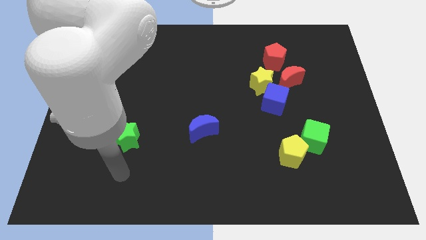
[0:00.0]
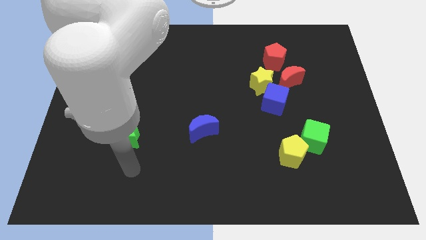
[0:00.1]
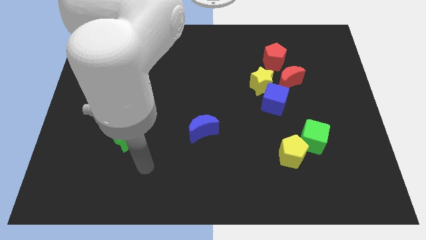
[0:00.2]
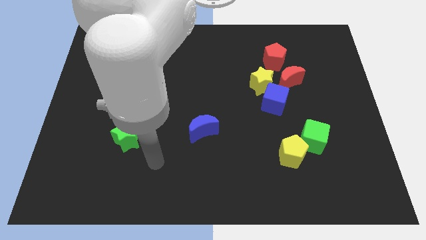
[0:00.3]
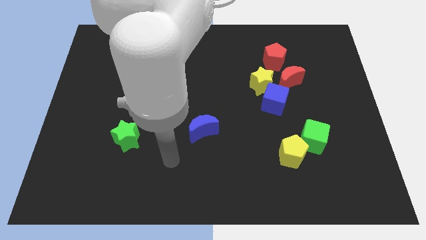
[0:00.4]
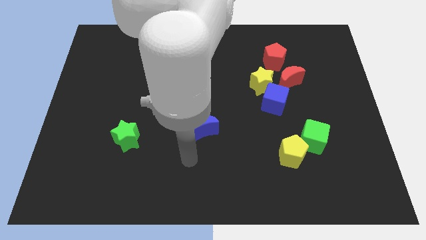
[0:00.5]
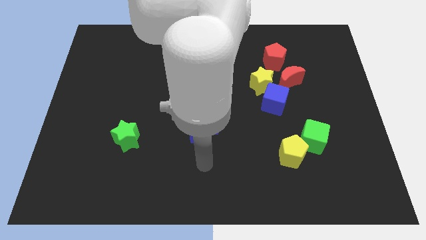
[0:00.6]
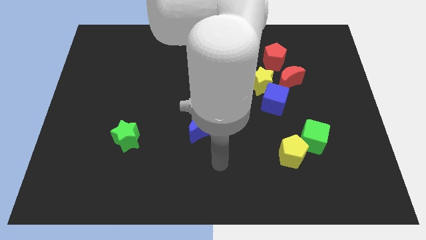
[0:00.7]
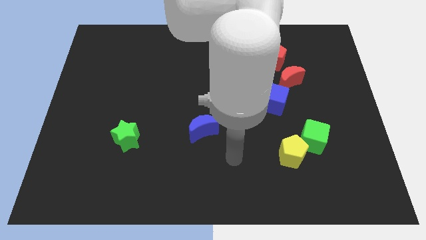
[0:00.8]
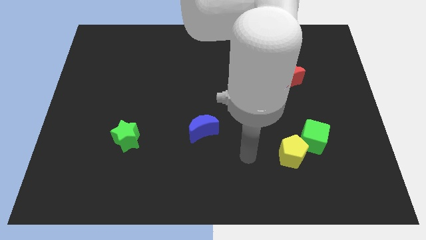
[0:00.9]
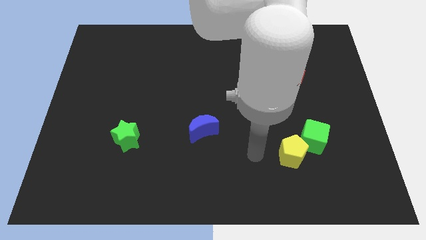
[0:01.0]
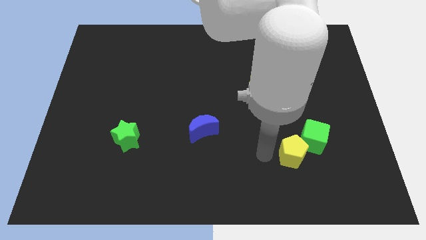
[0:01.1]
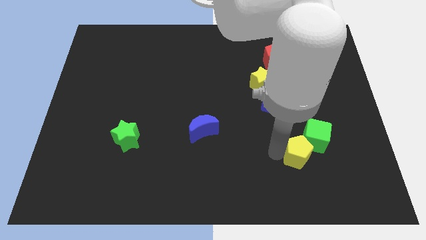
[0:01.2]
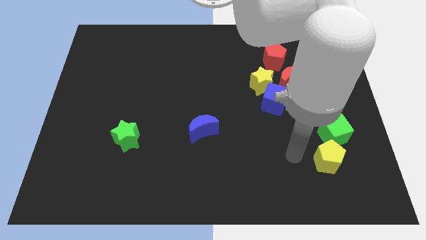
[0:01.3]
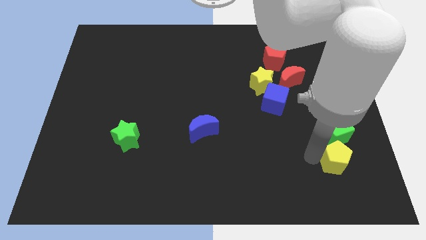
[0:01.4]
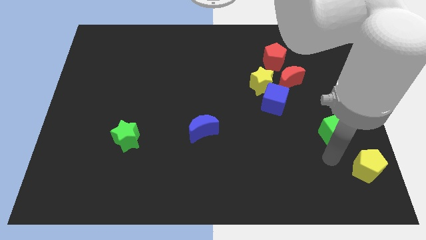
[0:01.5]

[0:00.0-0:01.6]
move the green cube away from the yellow pentagon

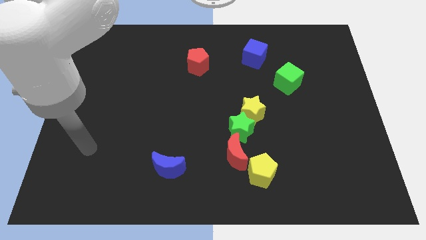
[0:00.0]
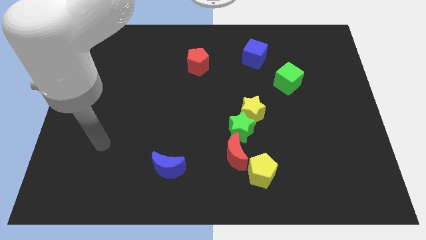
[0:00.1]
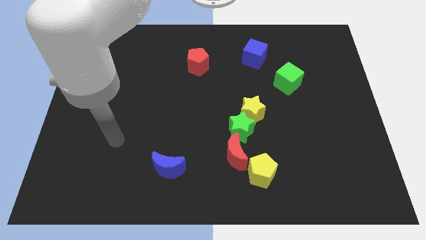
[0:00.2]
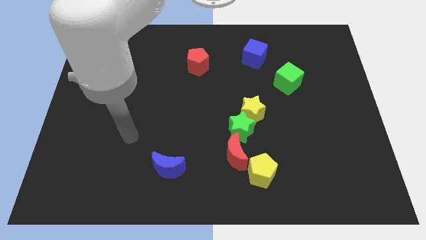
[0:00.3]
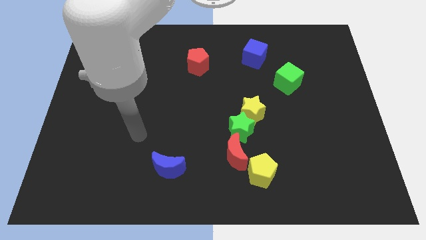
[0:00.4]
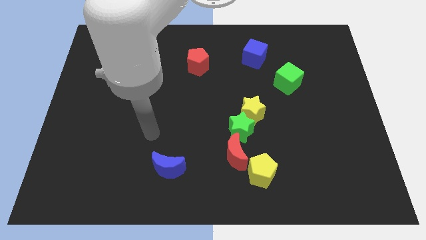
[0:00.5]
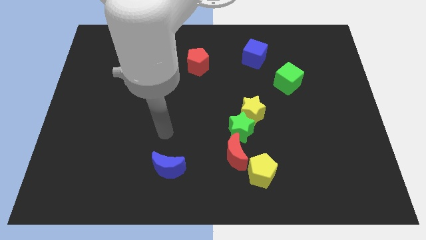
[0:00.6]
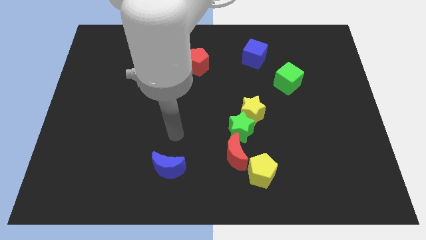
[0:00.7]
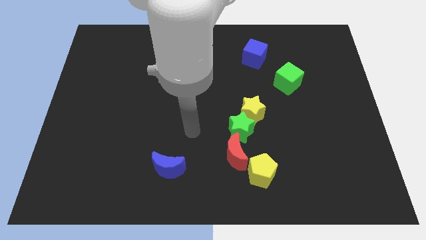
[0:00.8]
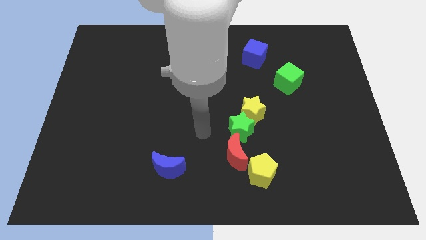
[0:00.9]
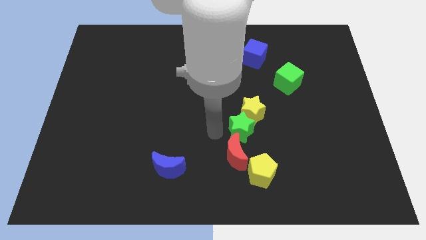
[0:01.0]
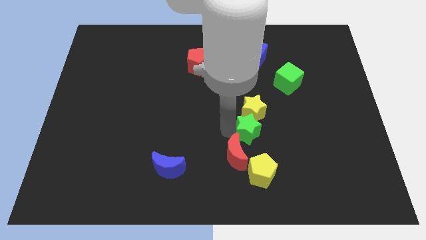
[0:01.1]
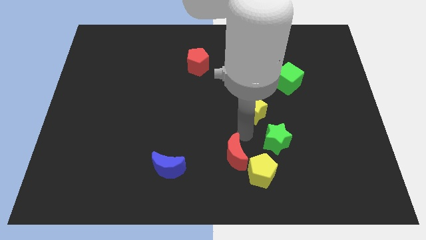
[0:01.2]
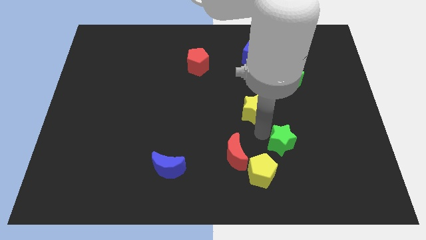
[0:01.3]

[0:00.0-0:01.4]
move the yellow star away from the green star

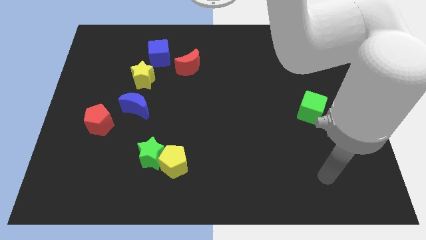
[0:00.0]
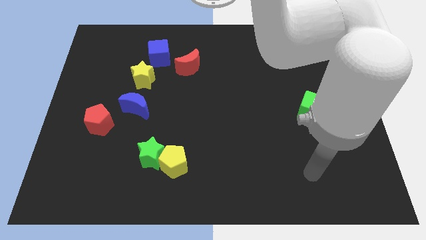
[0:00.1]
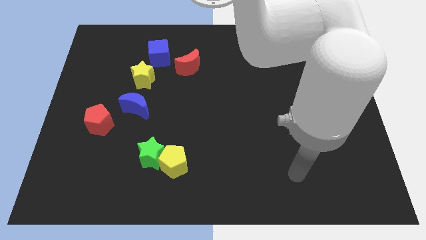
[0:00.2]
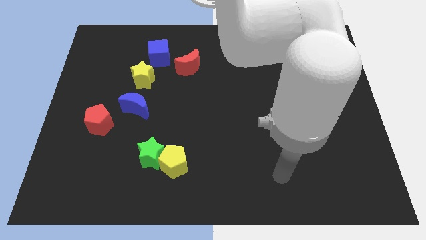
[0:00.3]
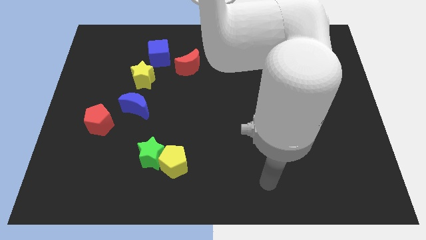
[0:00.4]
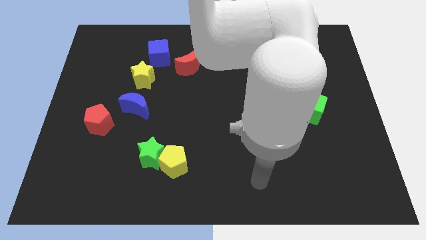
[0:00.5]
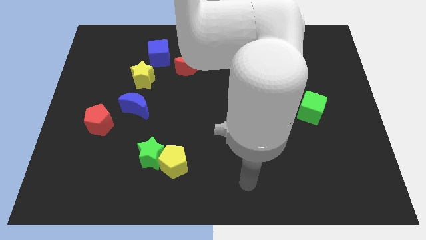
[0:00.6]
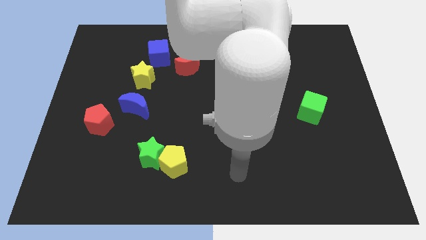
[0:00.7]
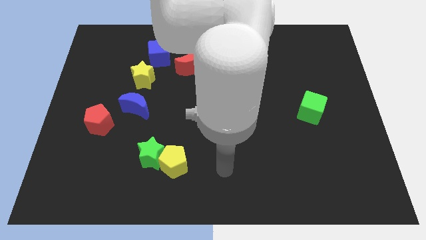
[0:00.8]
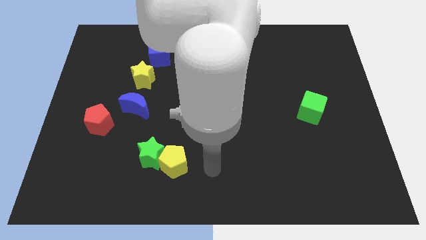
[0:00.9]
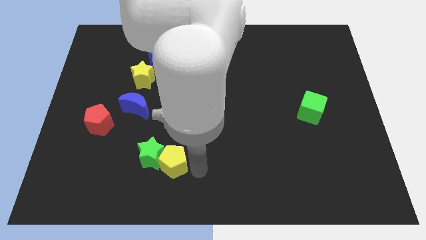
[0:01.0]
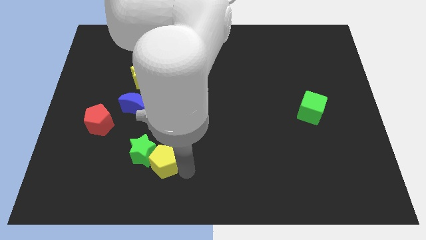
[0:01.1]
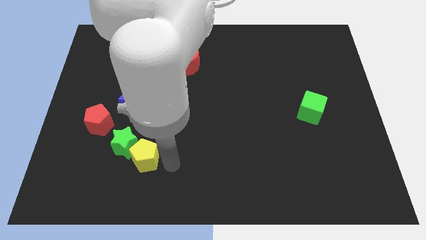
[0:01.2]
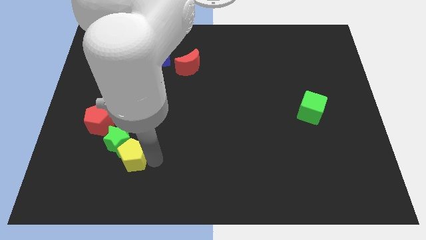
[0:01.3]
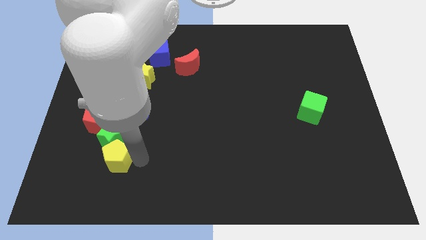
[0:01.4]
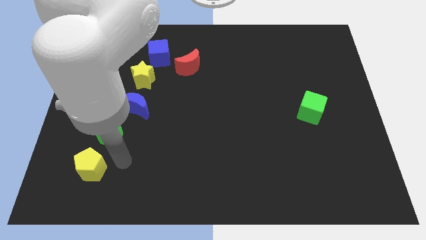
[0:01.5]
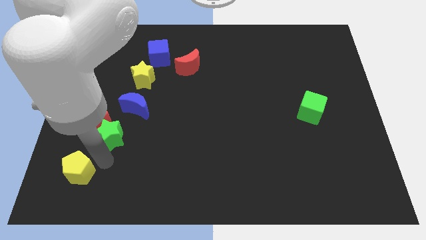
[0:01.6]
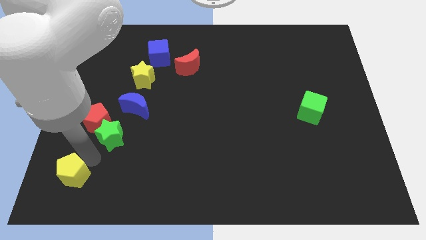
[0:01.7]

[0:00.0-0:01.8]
separate the green star from the yellow pentagon

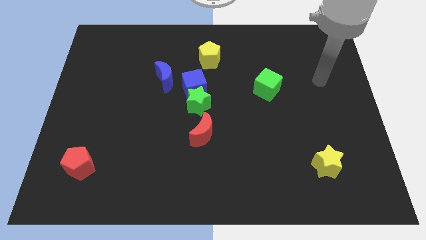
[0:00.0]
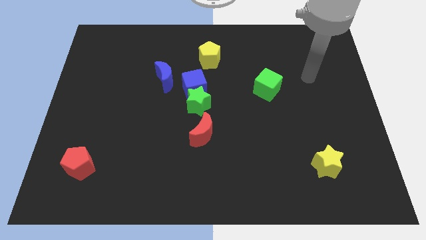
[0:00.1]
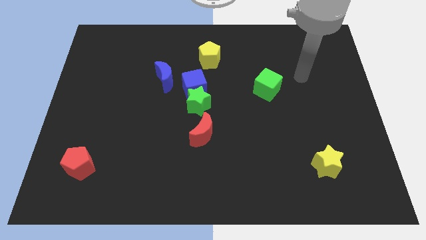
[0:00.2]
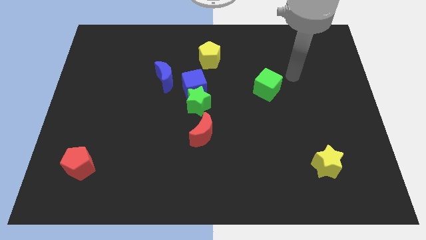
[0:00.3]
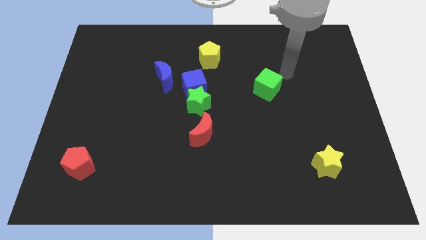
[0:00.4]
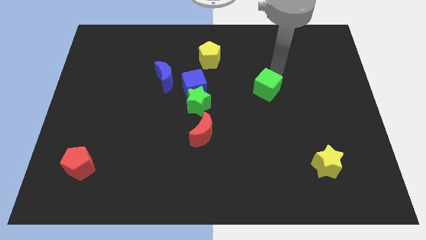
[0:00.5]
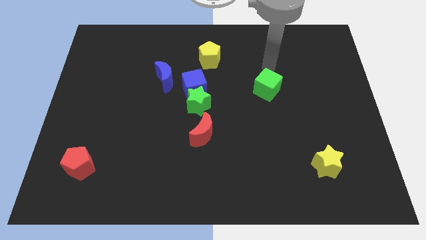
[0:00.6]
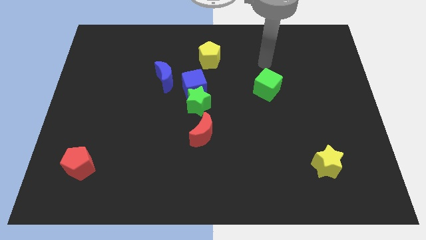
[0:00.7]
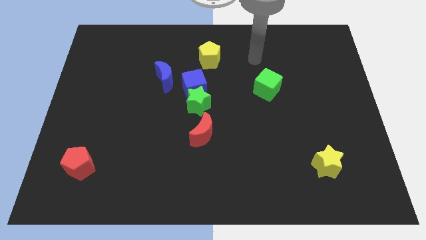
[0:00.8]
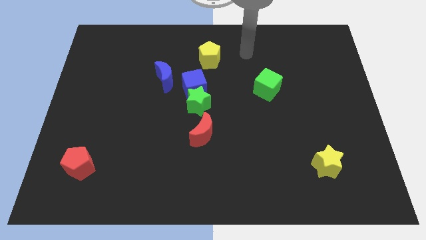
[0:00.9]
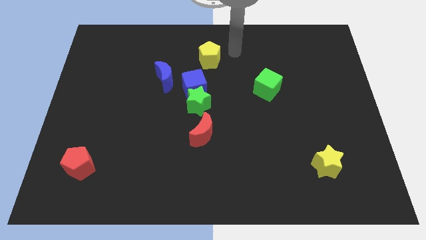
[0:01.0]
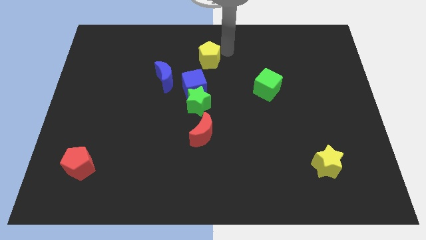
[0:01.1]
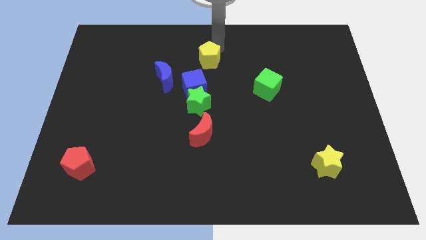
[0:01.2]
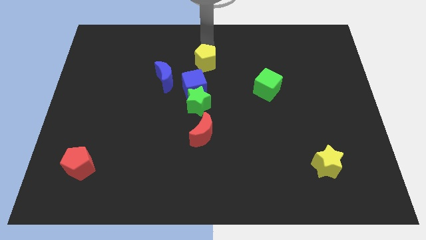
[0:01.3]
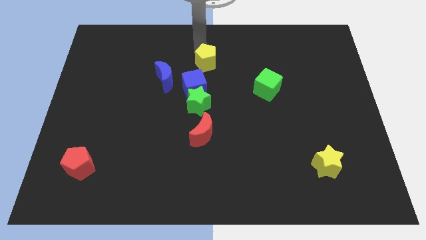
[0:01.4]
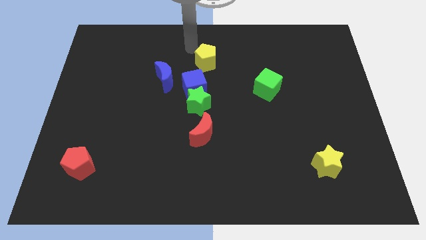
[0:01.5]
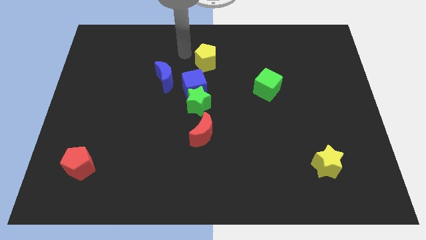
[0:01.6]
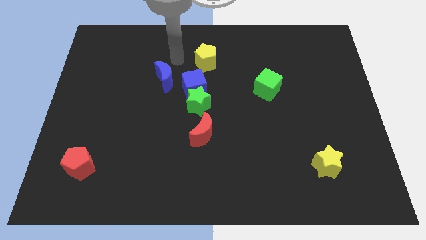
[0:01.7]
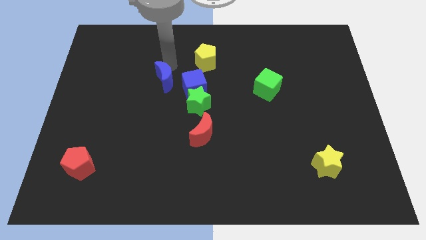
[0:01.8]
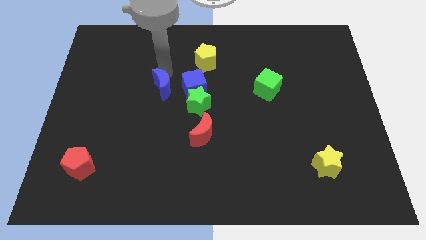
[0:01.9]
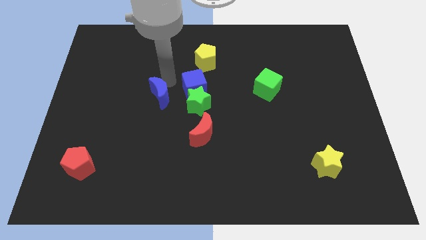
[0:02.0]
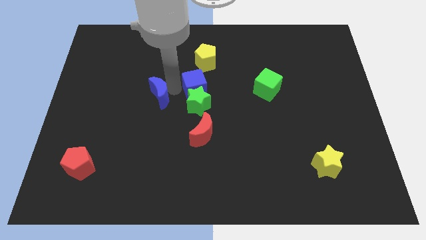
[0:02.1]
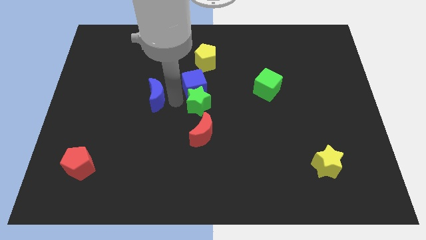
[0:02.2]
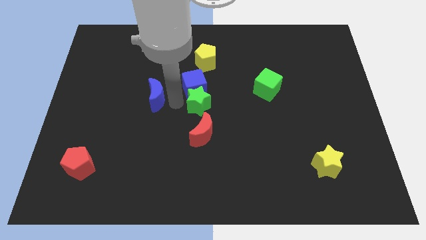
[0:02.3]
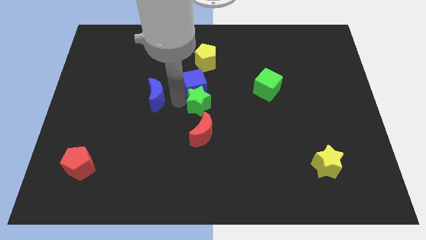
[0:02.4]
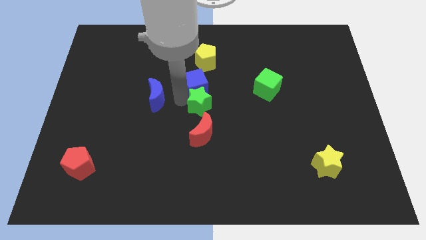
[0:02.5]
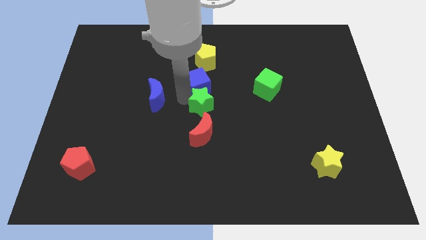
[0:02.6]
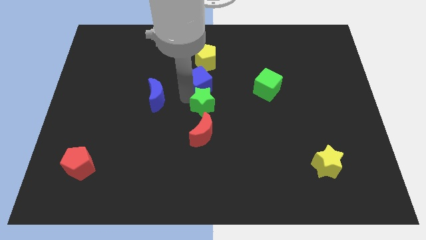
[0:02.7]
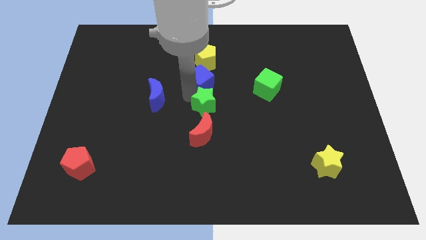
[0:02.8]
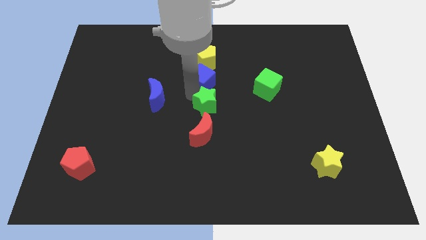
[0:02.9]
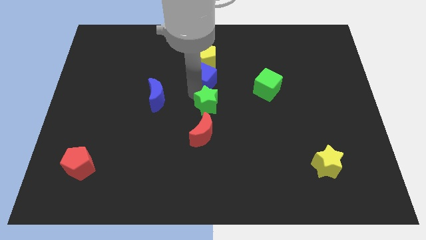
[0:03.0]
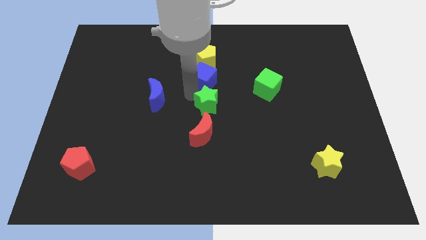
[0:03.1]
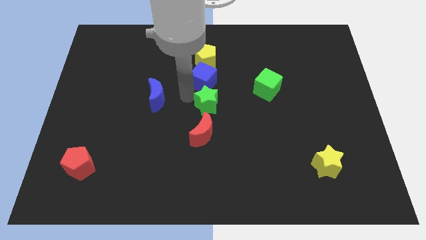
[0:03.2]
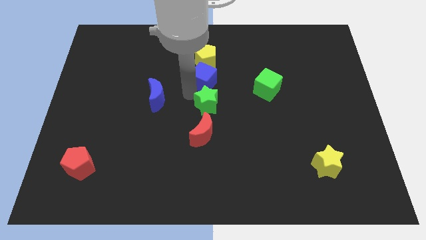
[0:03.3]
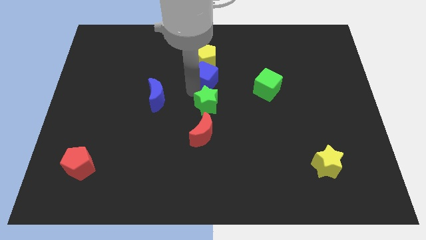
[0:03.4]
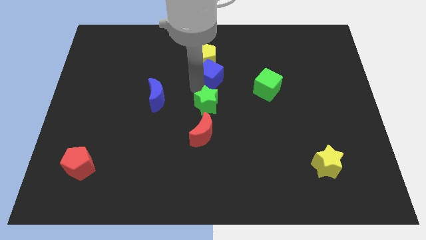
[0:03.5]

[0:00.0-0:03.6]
move the blue cube away from the green star and blue moon

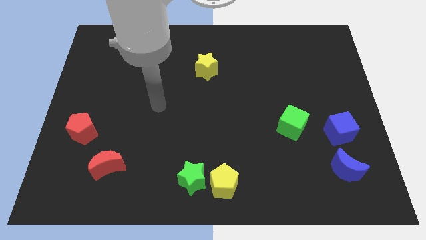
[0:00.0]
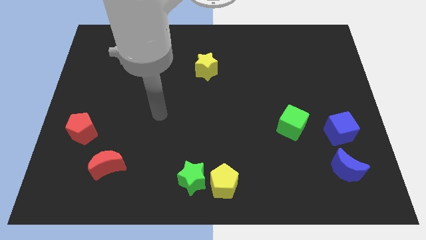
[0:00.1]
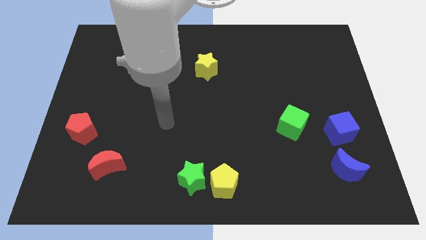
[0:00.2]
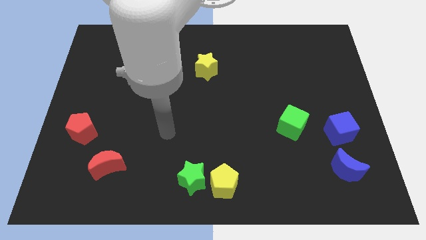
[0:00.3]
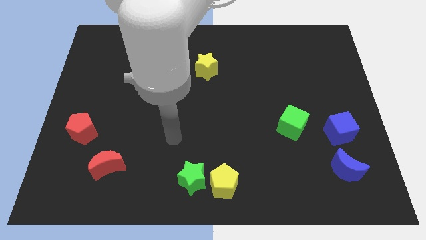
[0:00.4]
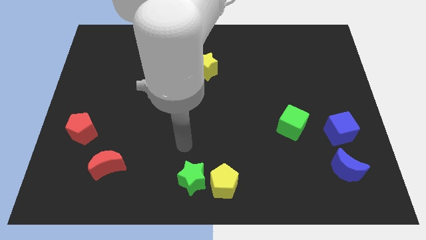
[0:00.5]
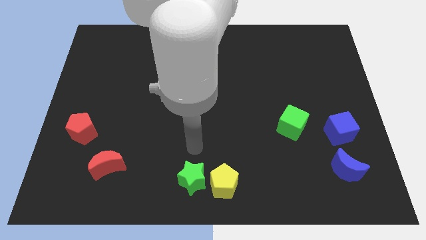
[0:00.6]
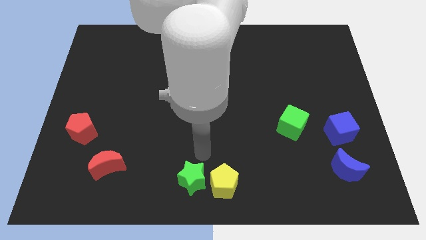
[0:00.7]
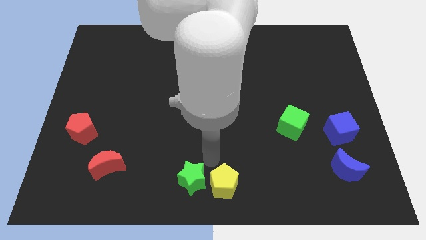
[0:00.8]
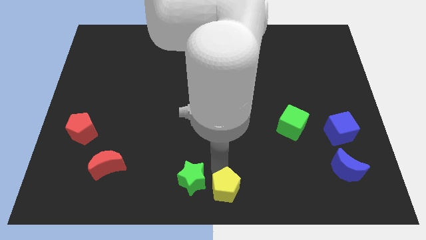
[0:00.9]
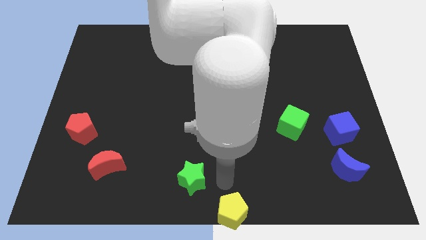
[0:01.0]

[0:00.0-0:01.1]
move the green star away from the yellow pentagon
